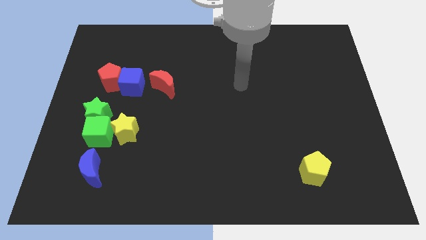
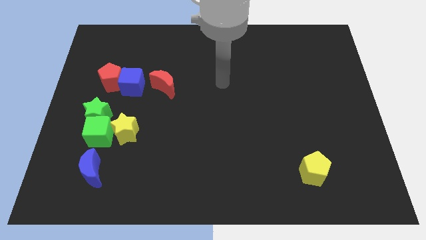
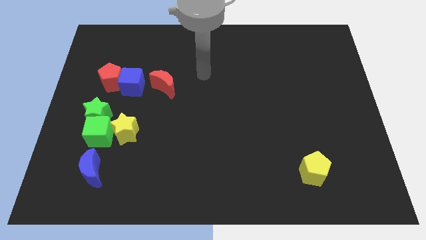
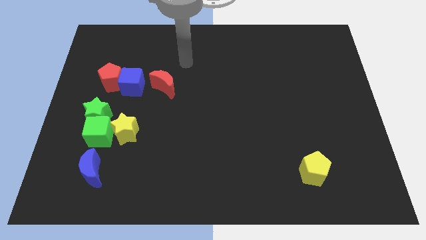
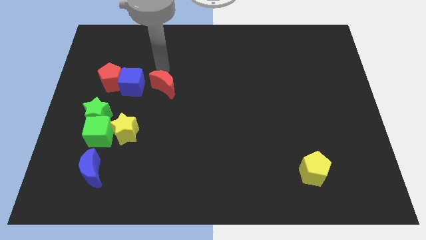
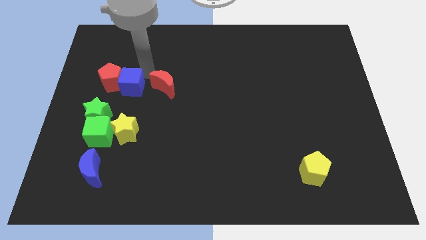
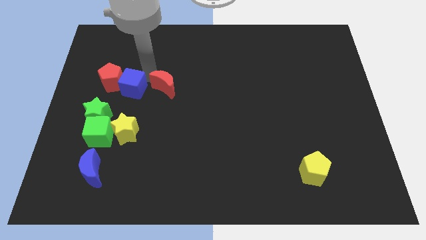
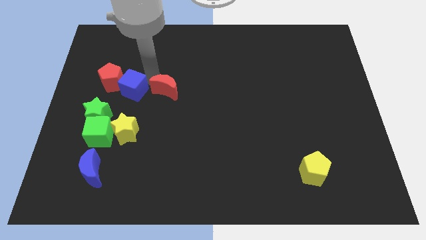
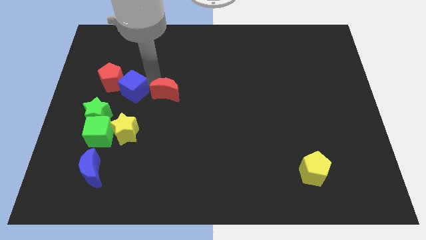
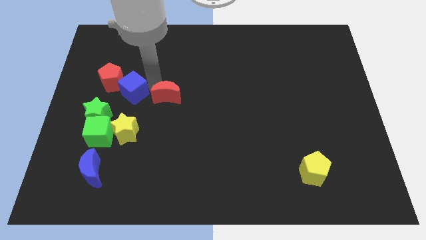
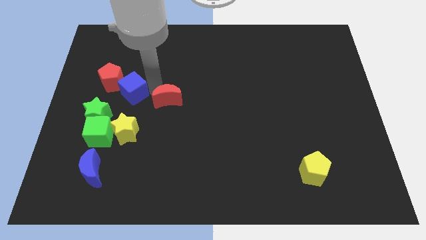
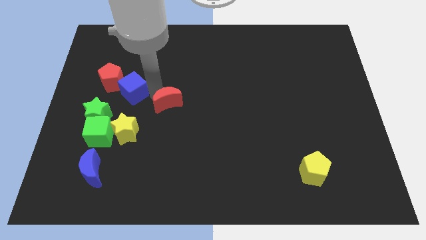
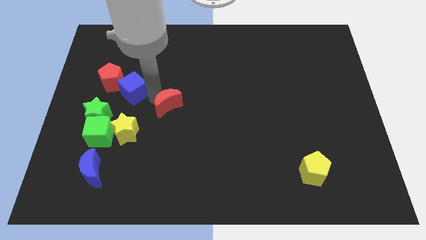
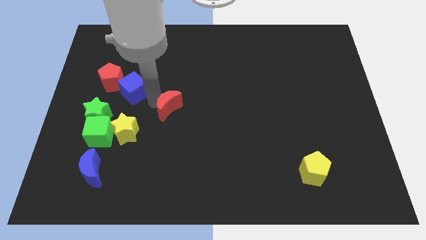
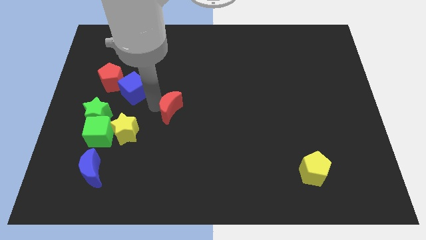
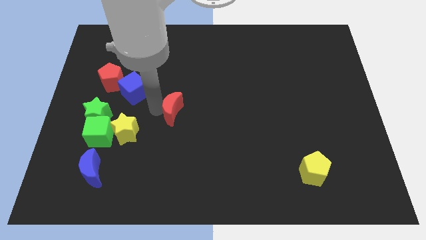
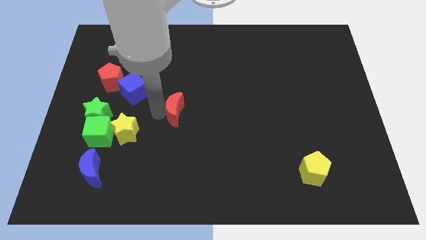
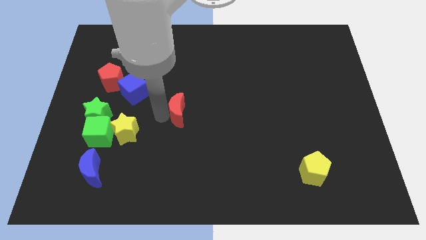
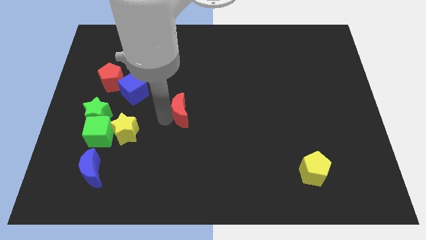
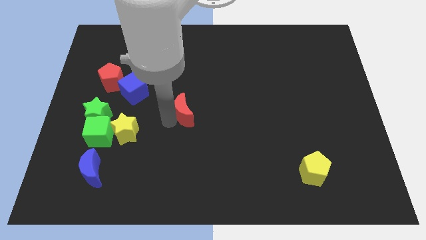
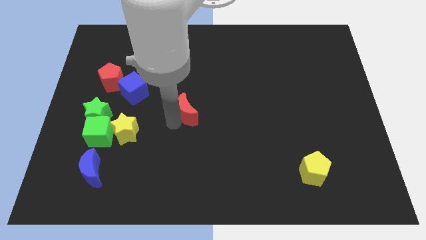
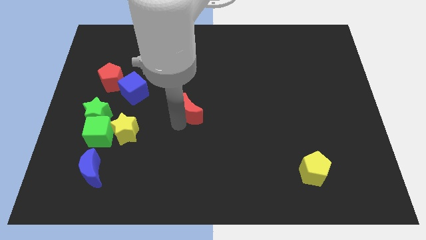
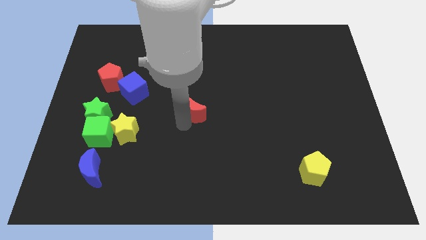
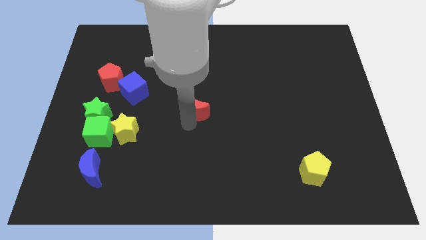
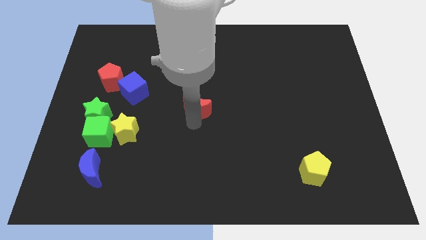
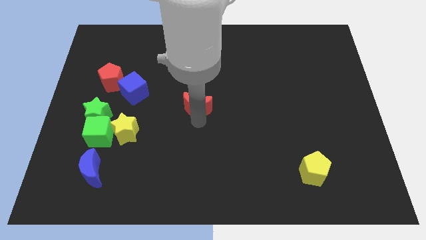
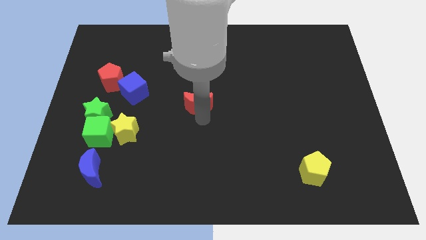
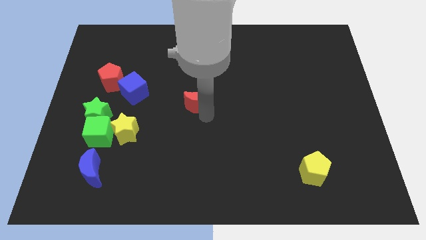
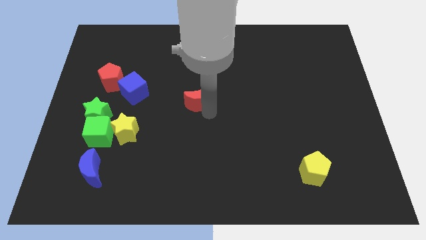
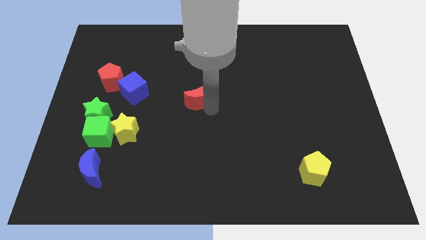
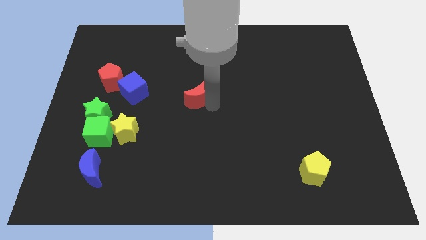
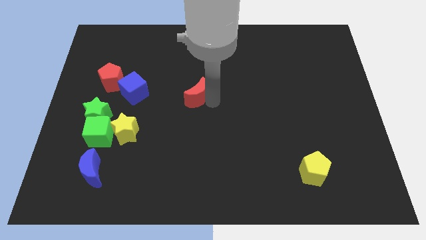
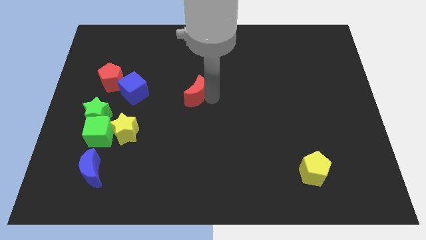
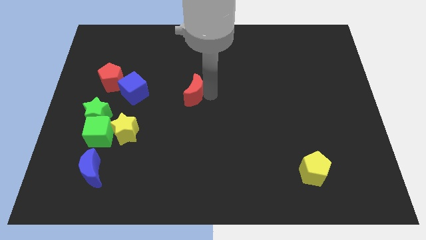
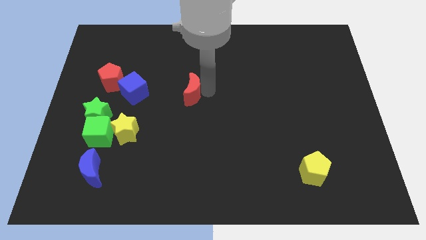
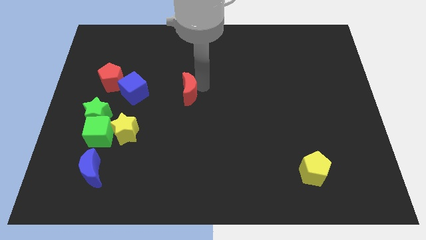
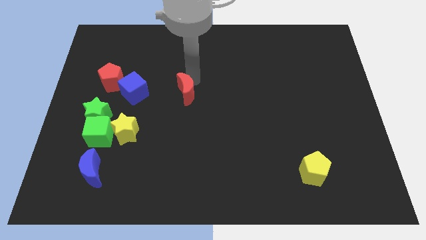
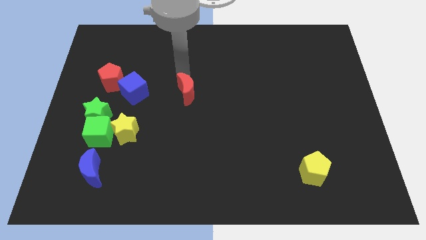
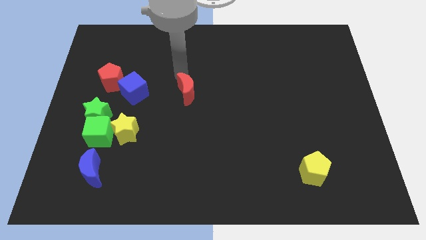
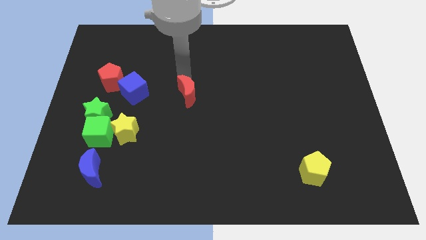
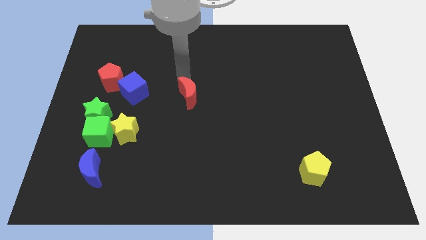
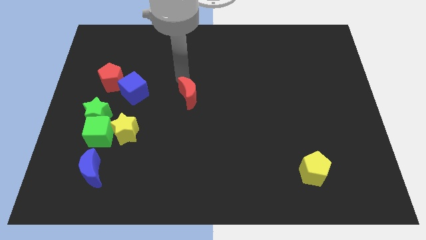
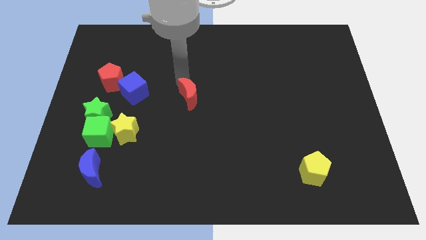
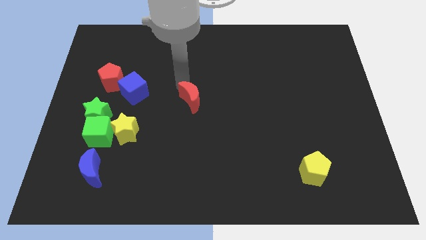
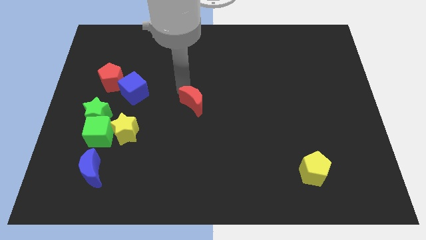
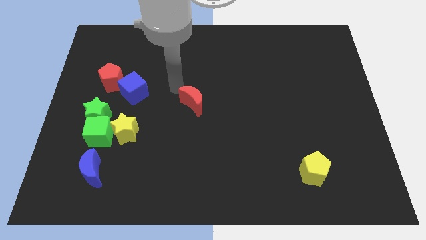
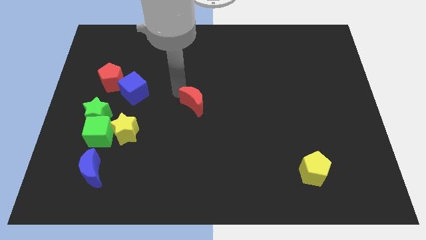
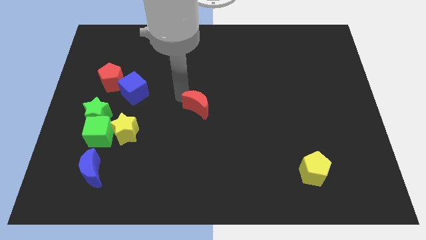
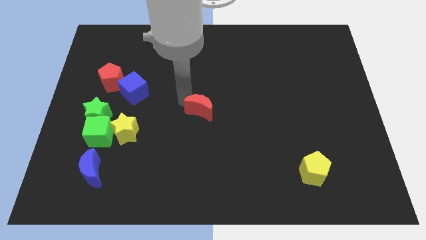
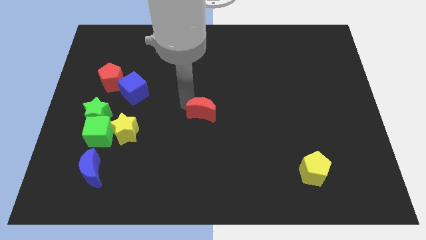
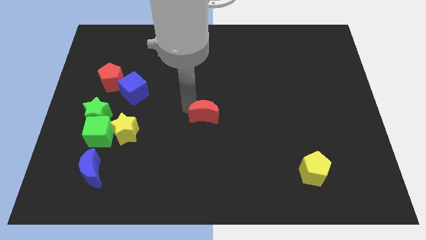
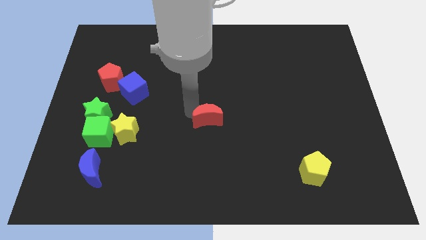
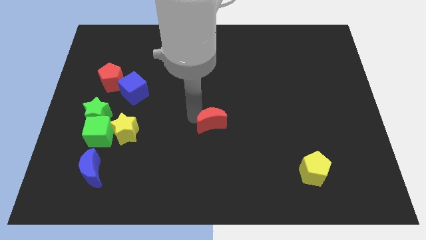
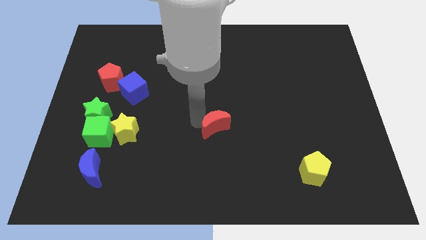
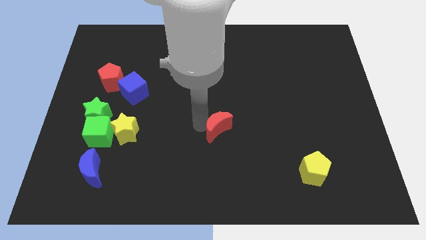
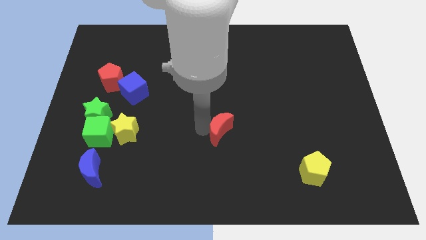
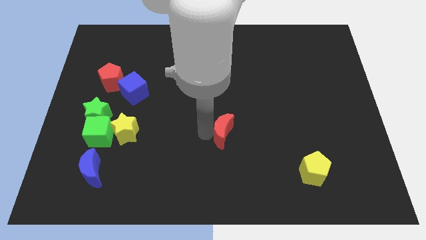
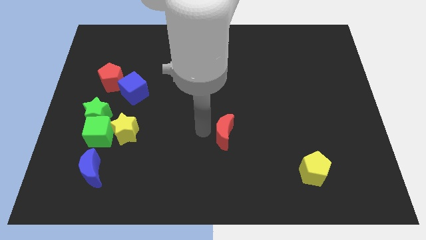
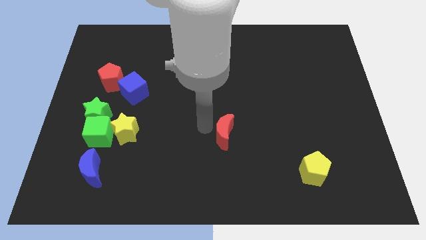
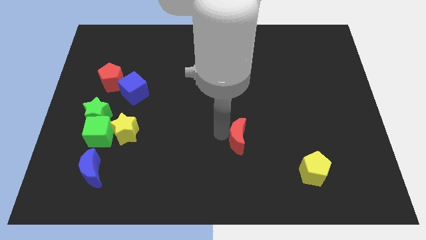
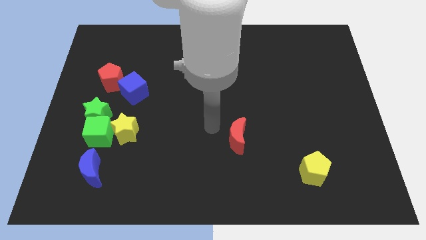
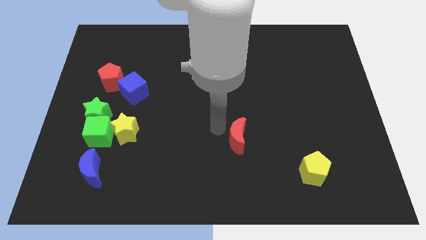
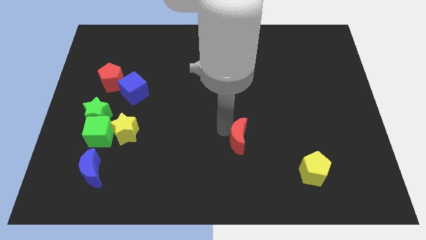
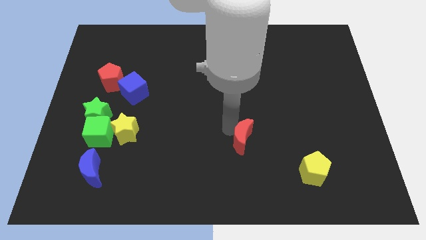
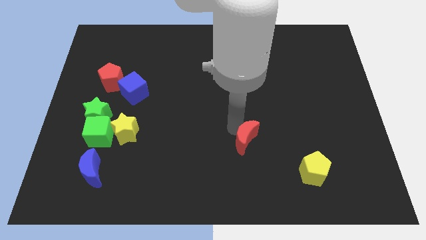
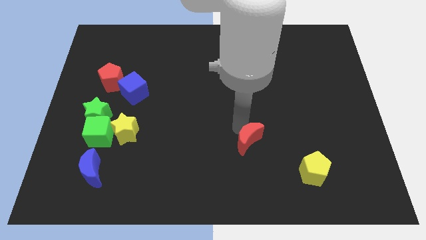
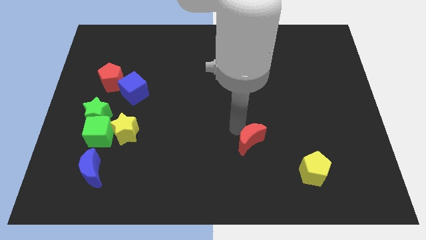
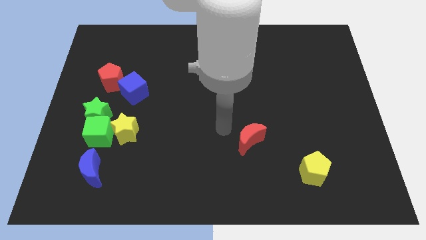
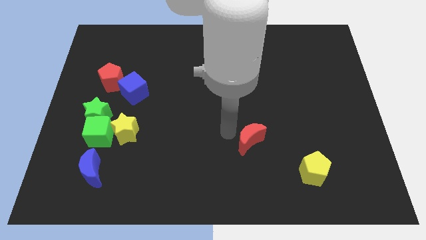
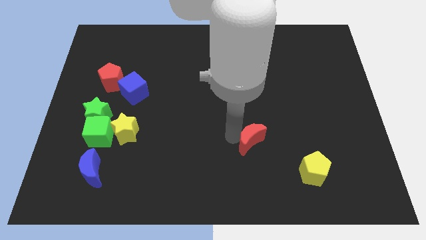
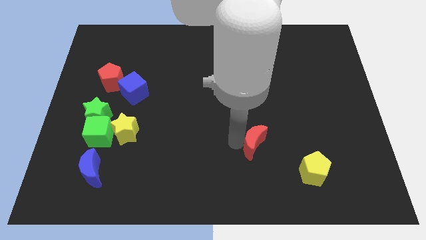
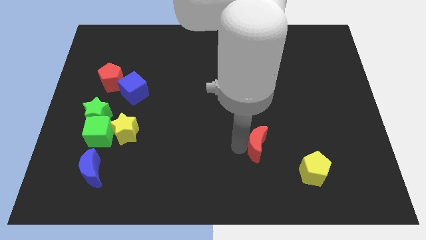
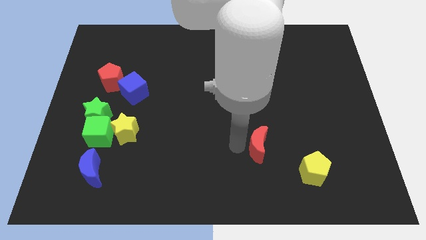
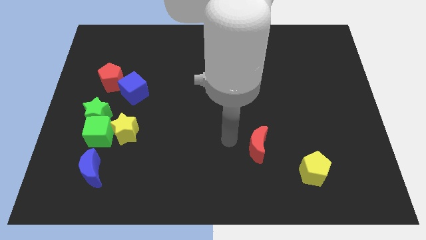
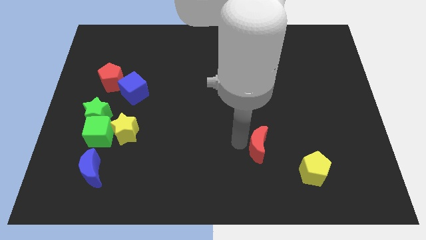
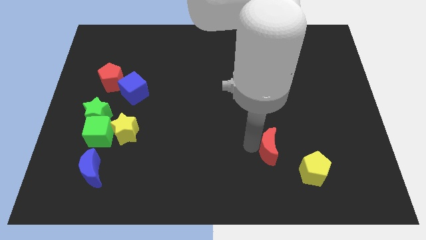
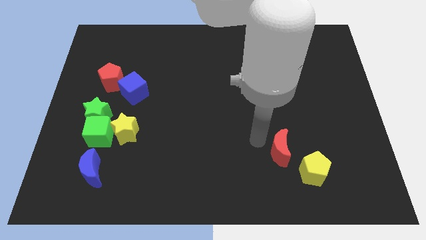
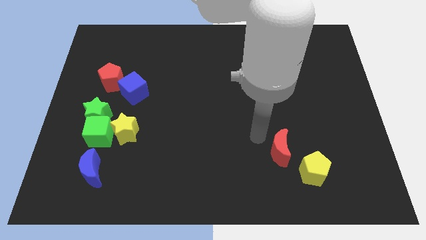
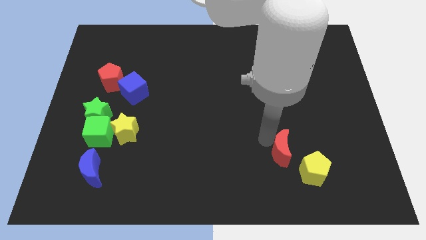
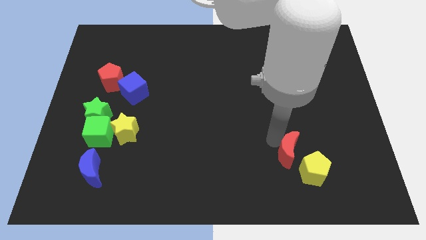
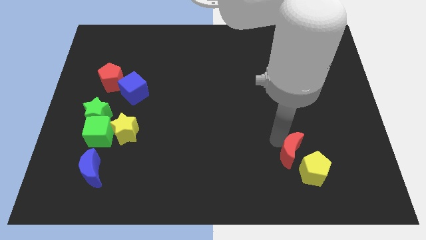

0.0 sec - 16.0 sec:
slide the red moon towards the yellow pentagon
